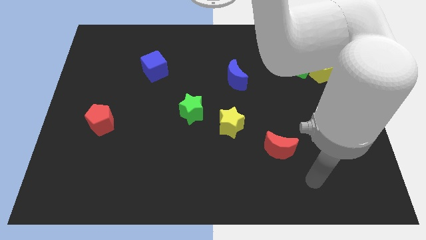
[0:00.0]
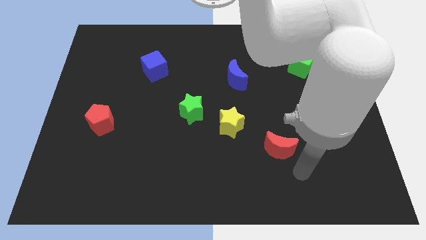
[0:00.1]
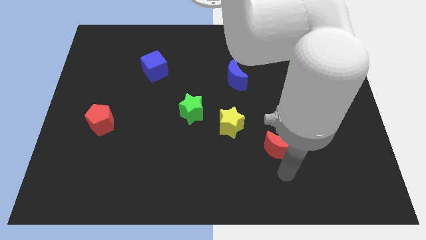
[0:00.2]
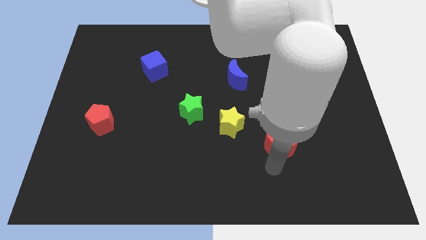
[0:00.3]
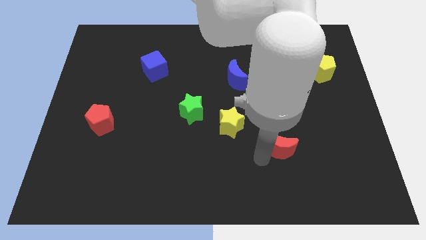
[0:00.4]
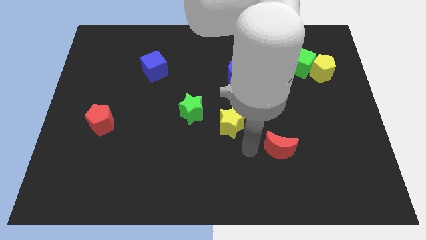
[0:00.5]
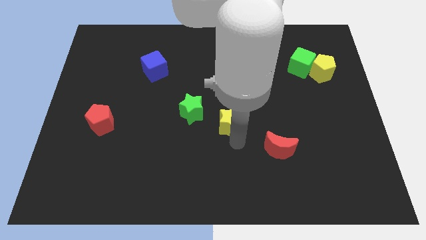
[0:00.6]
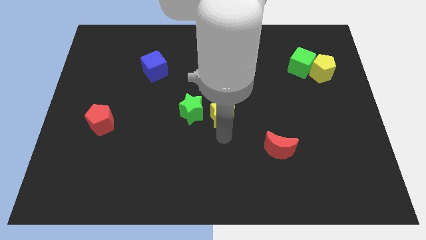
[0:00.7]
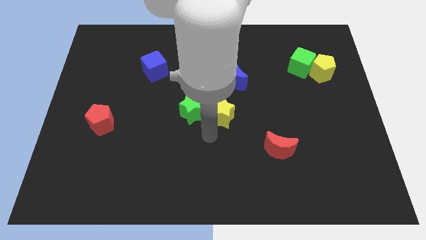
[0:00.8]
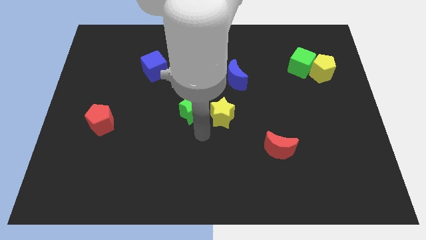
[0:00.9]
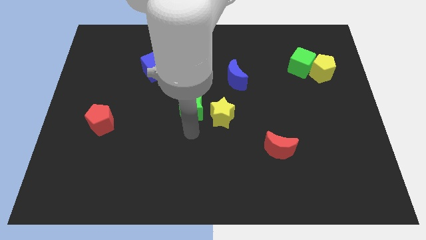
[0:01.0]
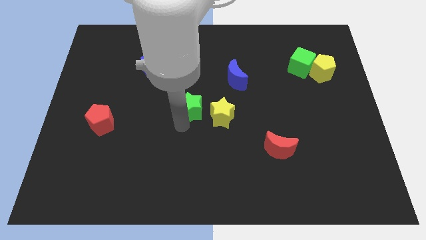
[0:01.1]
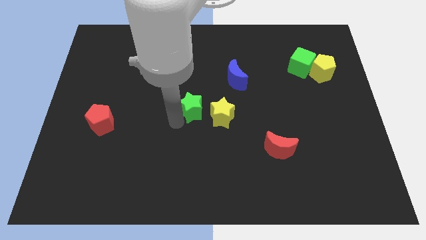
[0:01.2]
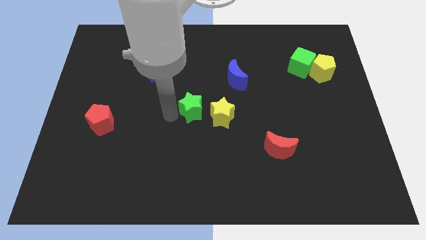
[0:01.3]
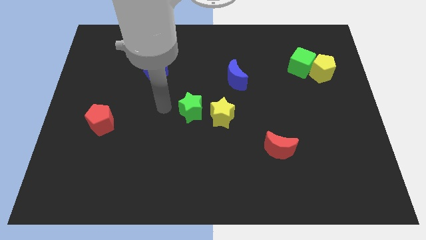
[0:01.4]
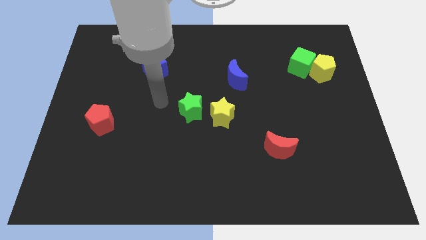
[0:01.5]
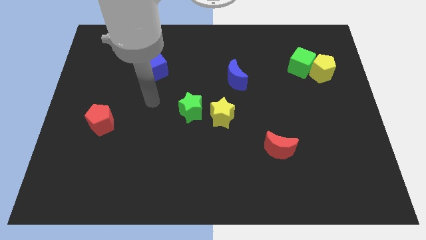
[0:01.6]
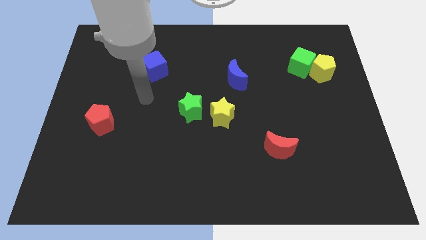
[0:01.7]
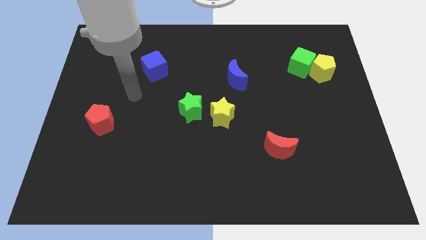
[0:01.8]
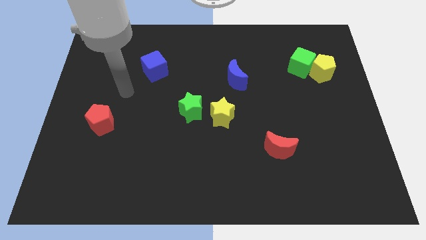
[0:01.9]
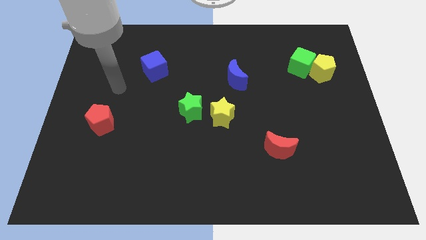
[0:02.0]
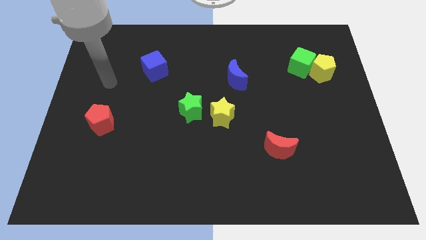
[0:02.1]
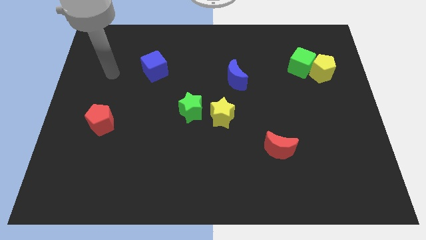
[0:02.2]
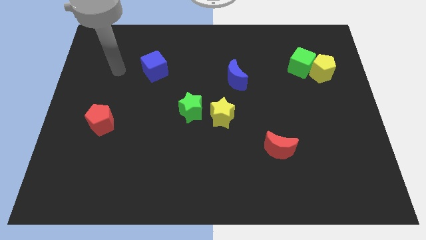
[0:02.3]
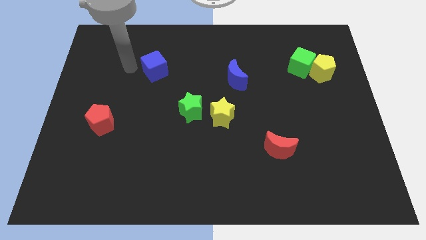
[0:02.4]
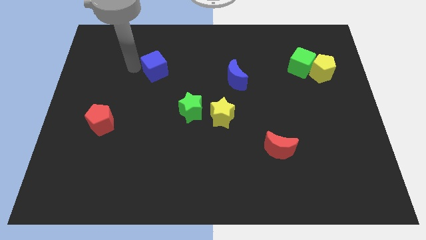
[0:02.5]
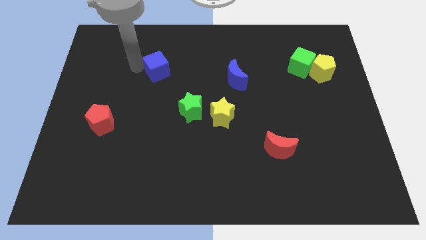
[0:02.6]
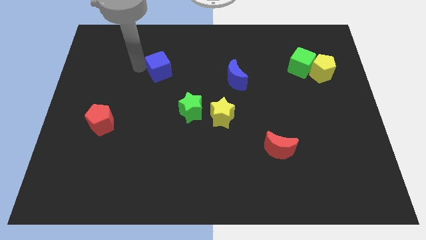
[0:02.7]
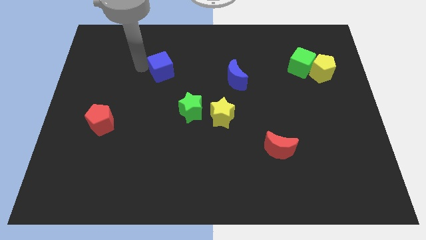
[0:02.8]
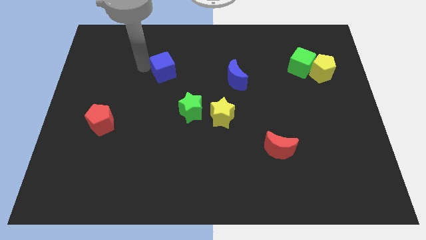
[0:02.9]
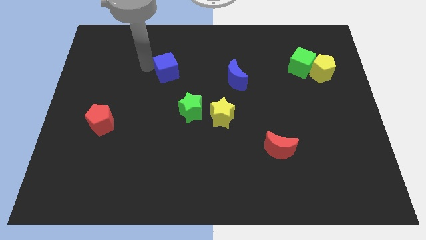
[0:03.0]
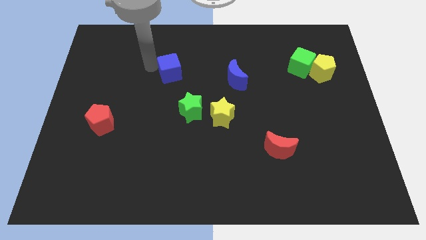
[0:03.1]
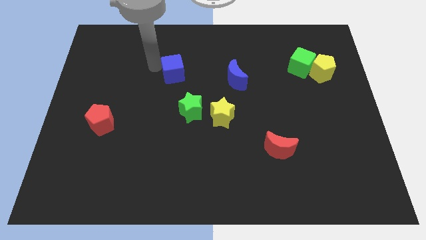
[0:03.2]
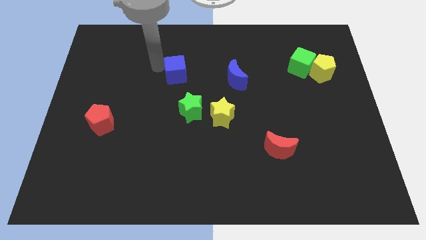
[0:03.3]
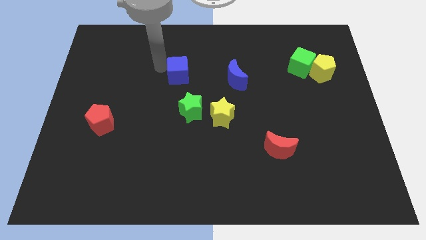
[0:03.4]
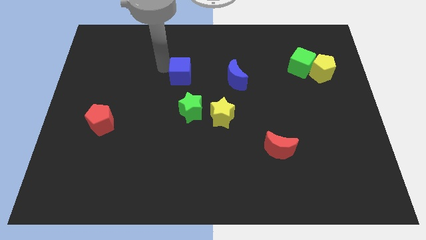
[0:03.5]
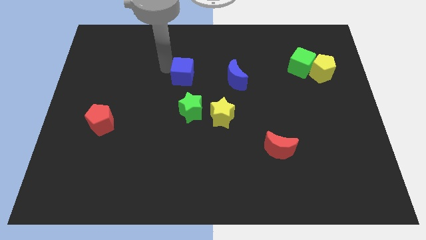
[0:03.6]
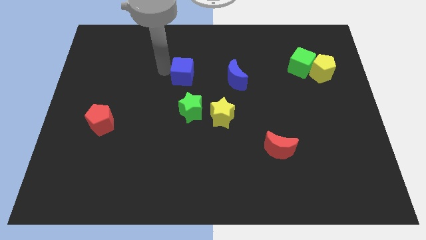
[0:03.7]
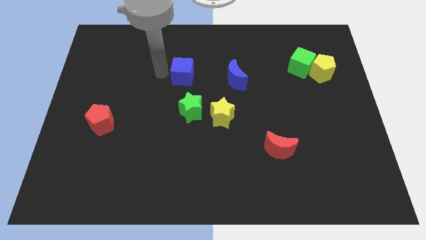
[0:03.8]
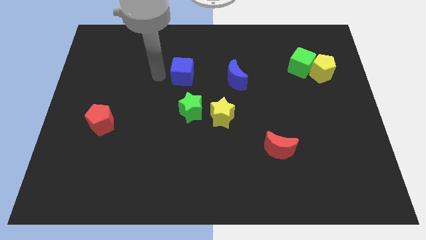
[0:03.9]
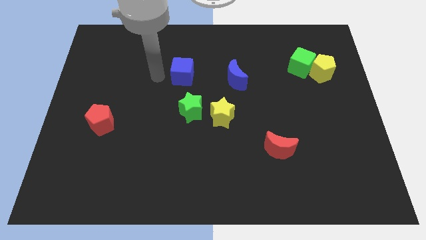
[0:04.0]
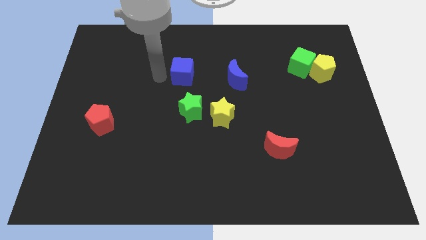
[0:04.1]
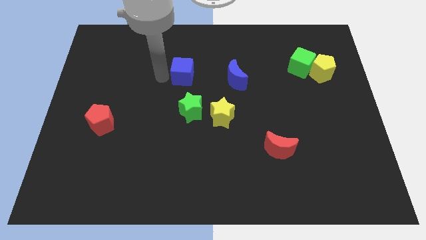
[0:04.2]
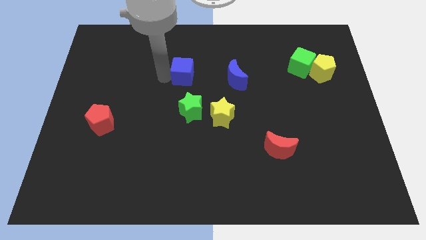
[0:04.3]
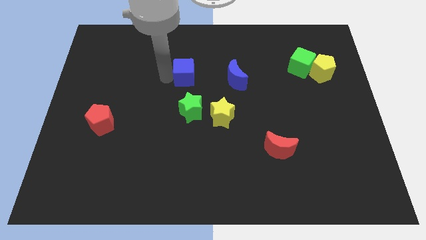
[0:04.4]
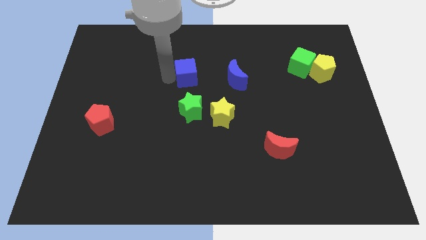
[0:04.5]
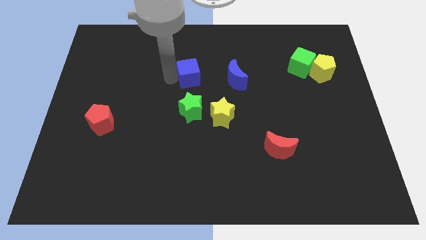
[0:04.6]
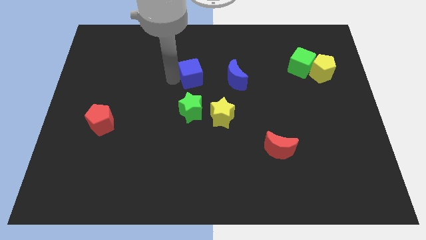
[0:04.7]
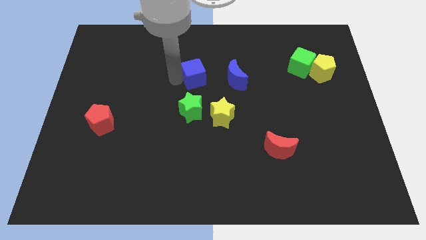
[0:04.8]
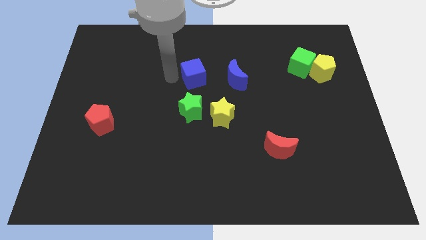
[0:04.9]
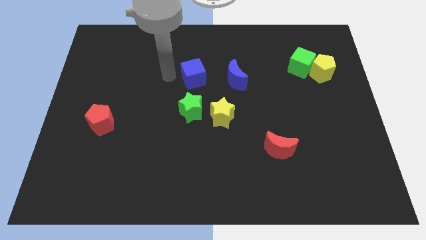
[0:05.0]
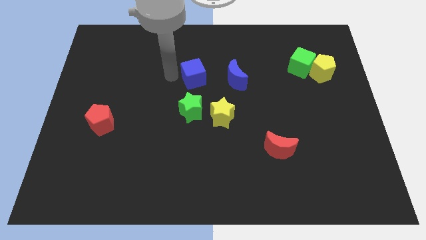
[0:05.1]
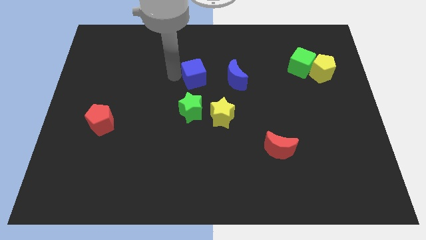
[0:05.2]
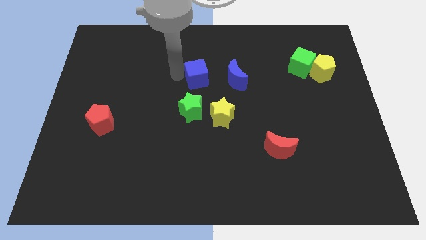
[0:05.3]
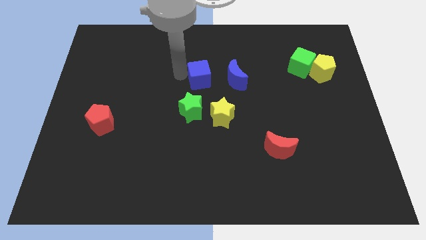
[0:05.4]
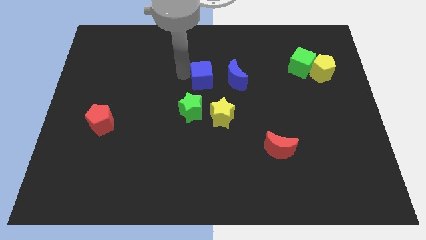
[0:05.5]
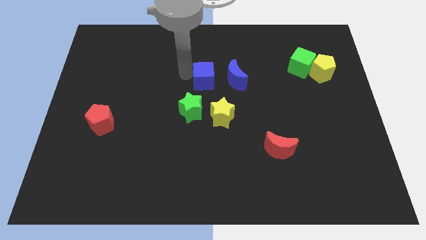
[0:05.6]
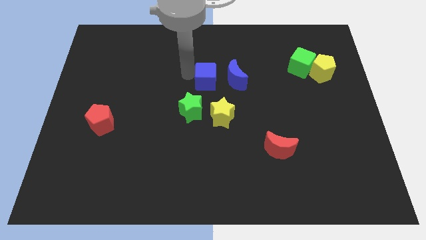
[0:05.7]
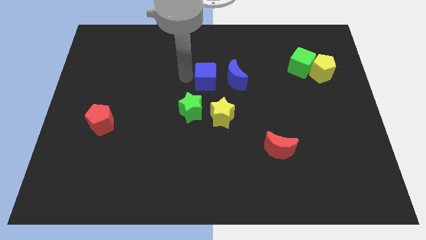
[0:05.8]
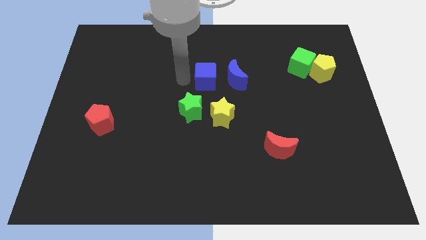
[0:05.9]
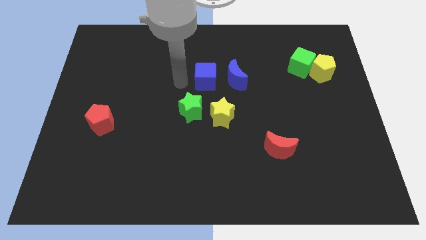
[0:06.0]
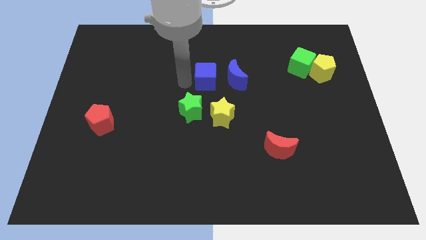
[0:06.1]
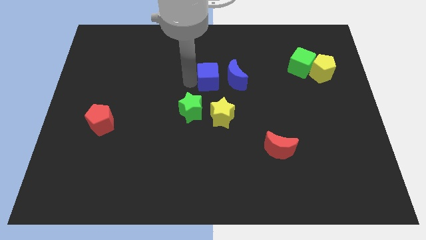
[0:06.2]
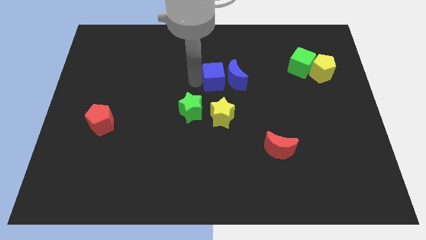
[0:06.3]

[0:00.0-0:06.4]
put the blue cube to the blue moon

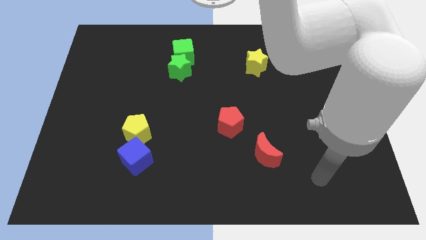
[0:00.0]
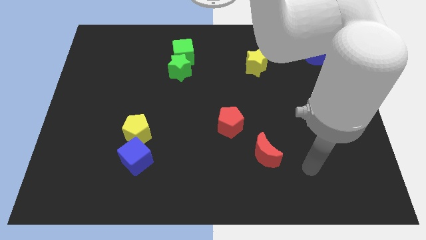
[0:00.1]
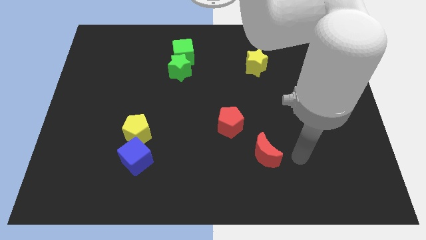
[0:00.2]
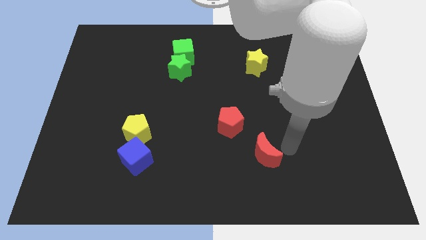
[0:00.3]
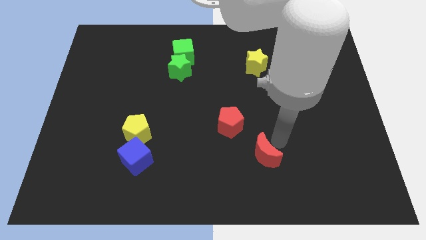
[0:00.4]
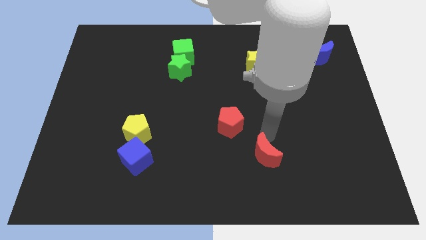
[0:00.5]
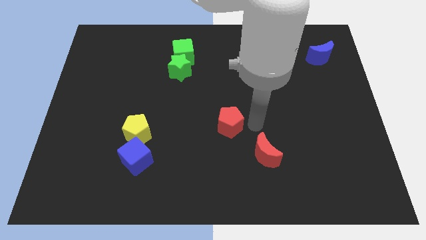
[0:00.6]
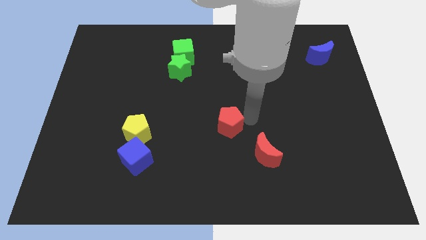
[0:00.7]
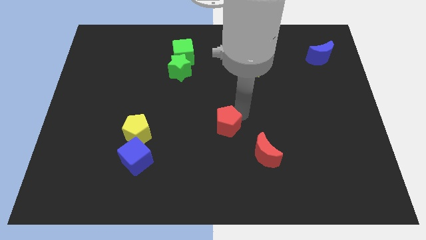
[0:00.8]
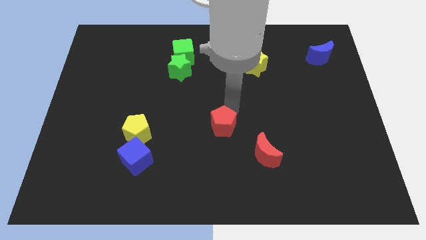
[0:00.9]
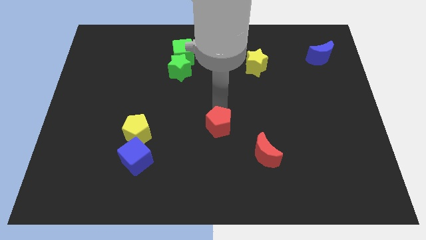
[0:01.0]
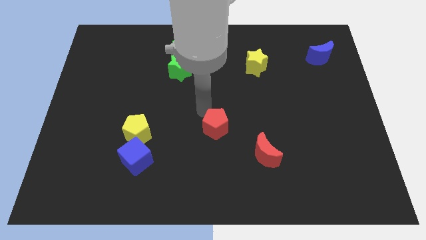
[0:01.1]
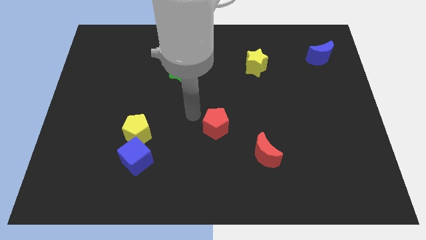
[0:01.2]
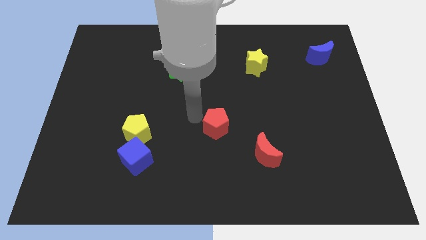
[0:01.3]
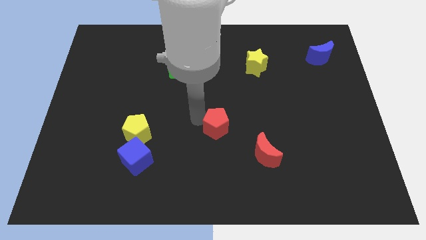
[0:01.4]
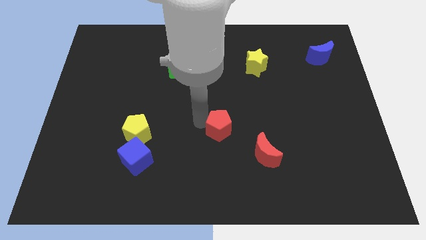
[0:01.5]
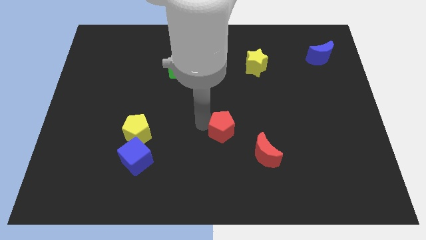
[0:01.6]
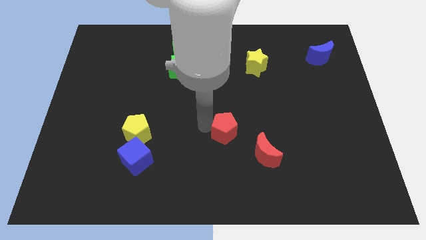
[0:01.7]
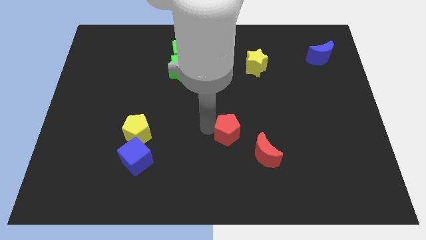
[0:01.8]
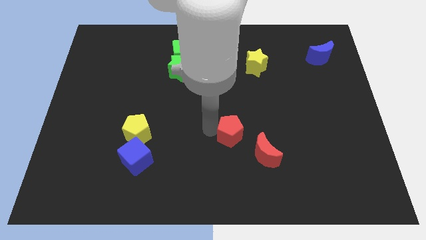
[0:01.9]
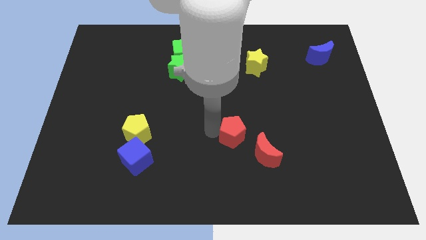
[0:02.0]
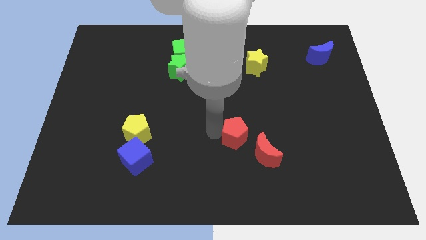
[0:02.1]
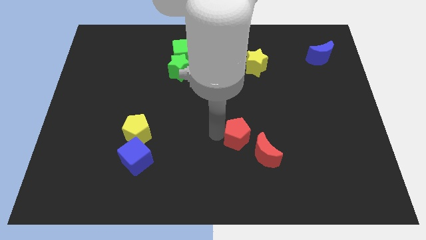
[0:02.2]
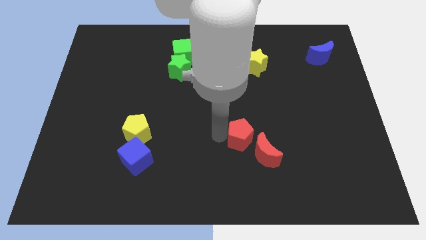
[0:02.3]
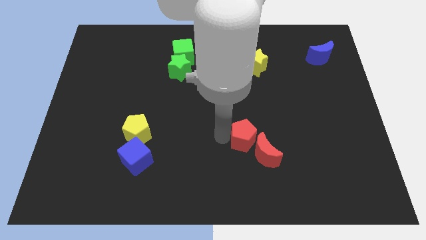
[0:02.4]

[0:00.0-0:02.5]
push the red pentagon to the red moon
